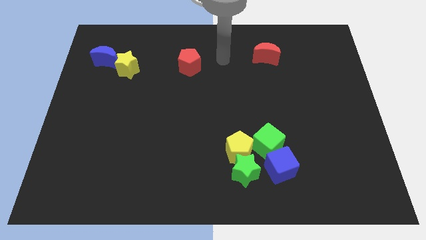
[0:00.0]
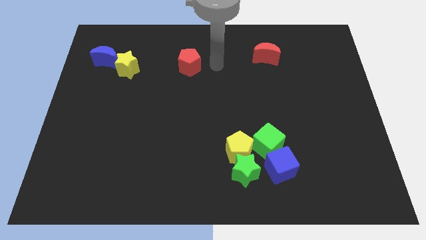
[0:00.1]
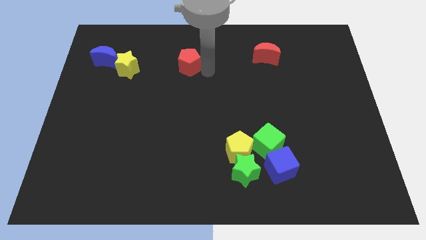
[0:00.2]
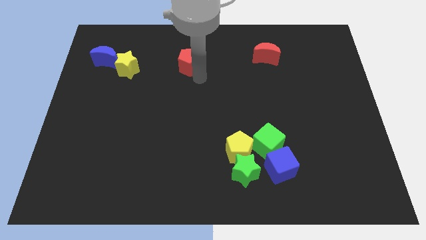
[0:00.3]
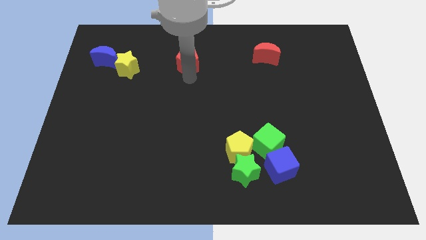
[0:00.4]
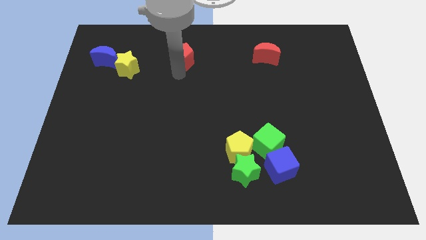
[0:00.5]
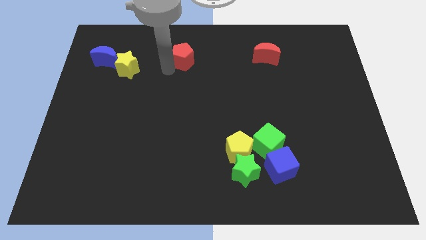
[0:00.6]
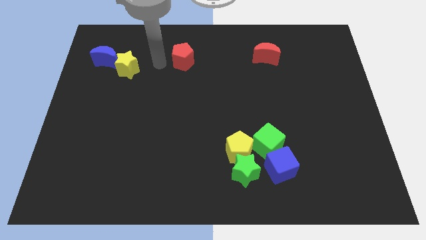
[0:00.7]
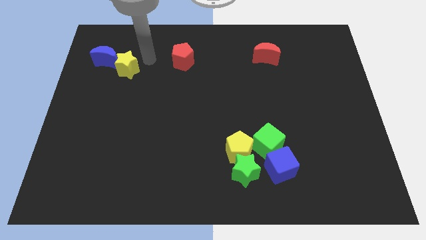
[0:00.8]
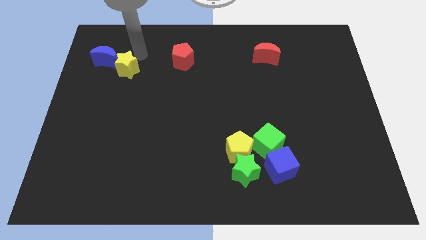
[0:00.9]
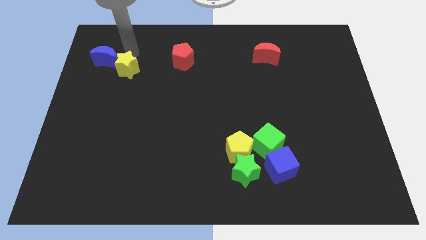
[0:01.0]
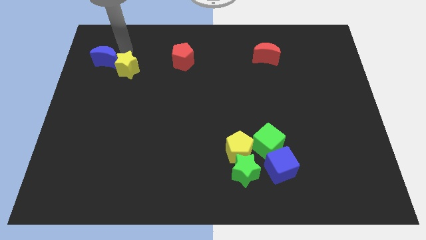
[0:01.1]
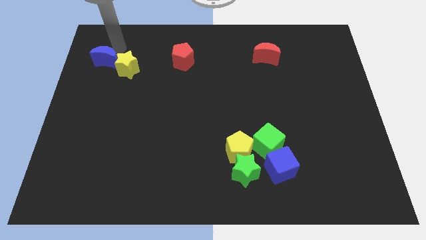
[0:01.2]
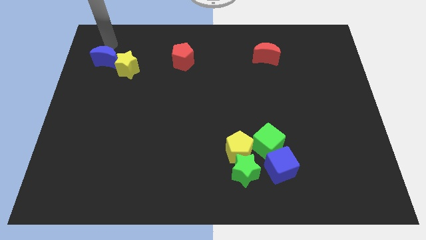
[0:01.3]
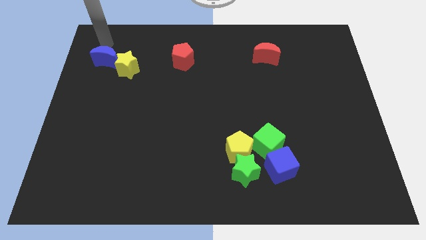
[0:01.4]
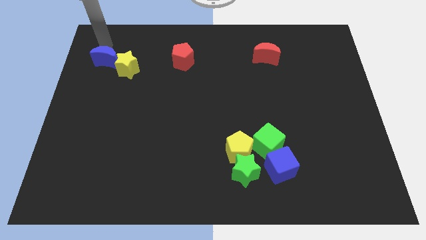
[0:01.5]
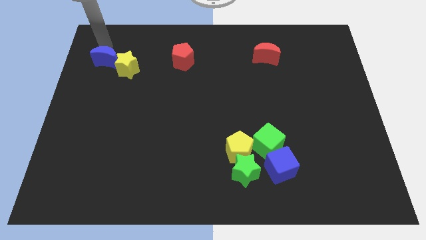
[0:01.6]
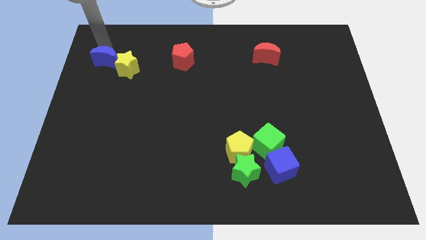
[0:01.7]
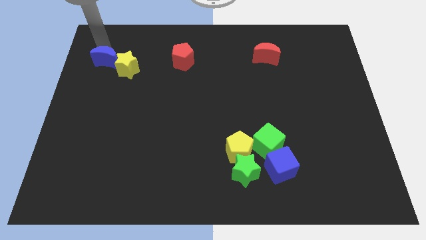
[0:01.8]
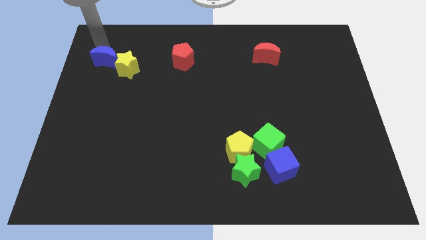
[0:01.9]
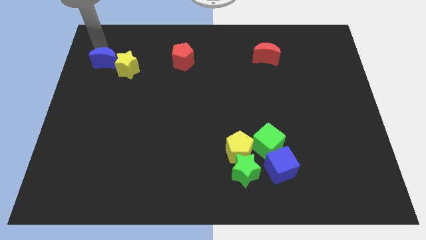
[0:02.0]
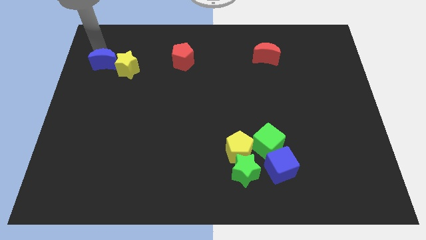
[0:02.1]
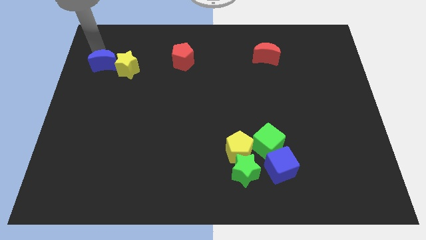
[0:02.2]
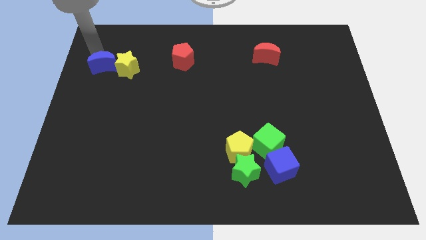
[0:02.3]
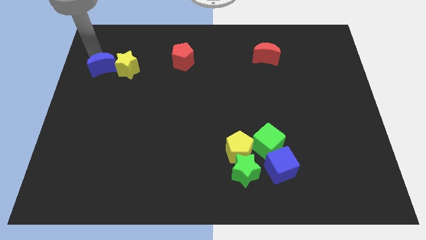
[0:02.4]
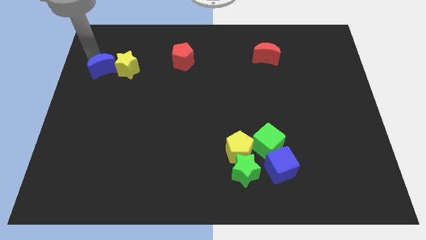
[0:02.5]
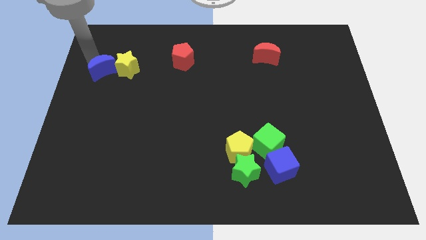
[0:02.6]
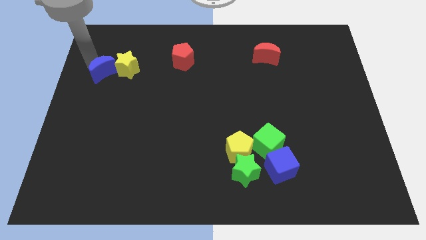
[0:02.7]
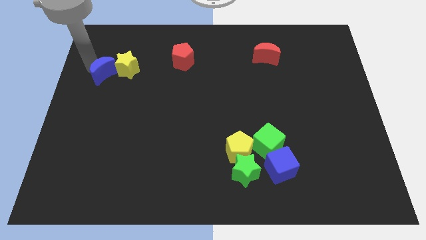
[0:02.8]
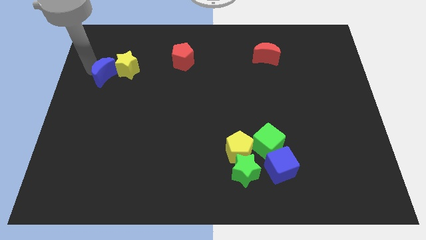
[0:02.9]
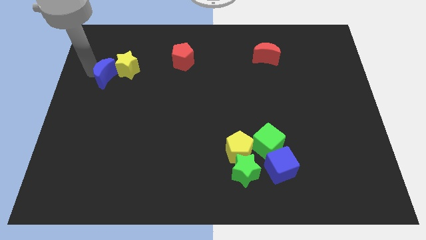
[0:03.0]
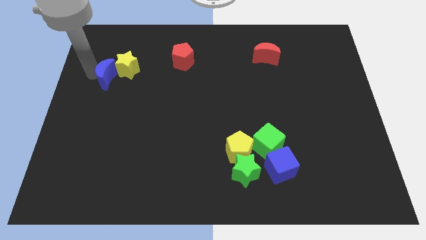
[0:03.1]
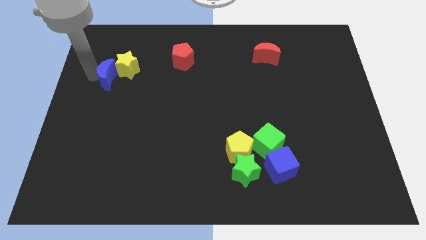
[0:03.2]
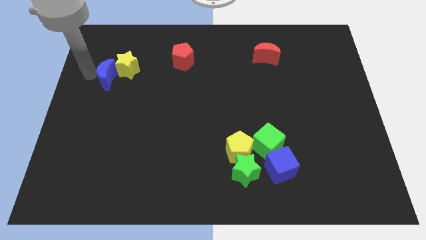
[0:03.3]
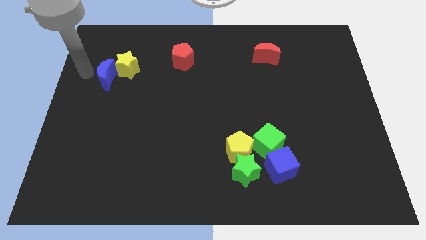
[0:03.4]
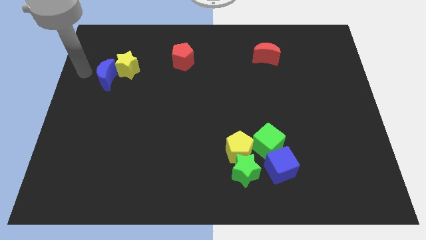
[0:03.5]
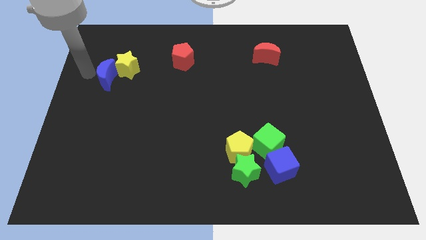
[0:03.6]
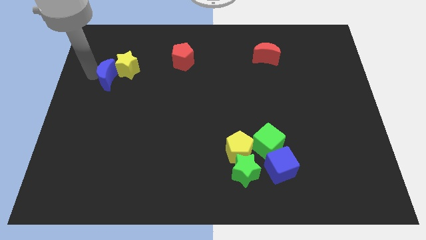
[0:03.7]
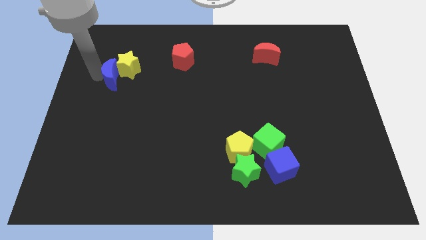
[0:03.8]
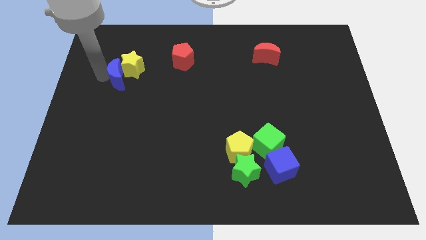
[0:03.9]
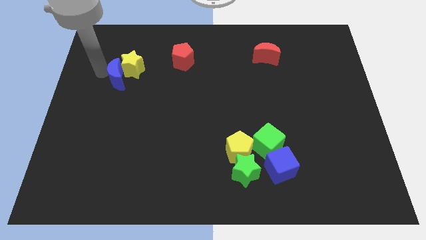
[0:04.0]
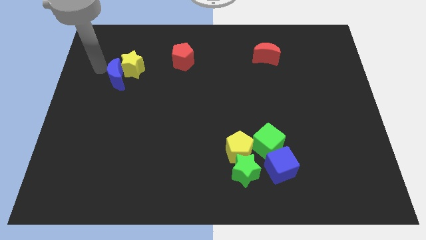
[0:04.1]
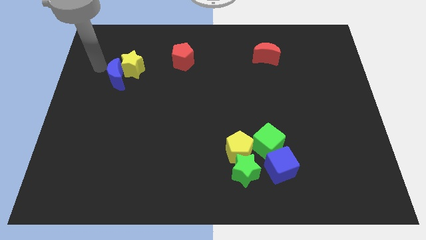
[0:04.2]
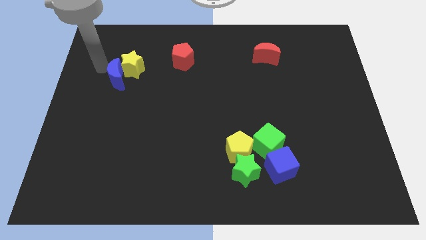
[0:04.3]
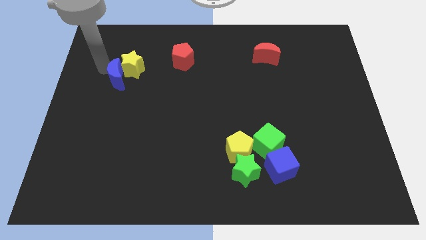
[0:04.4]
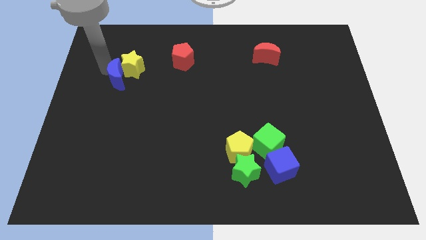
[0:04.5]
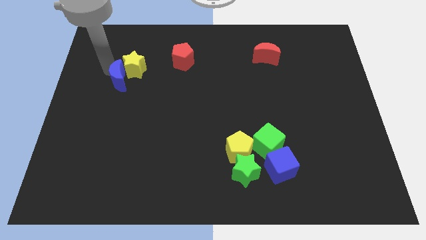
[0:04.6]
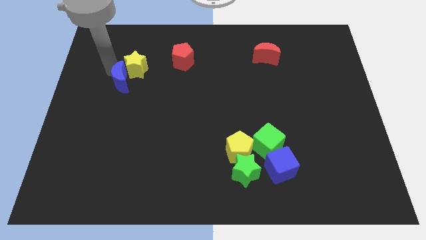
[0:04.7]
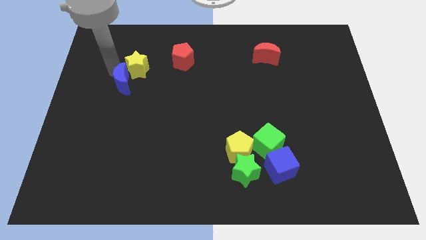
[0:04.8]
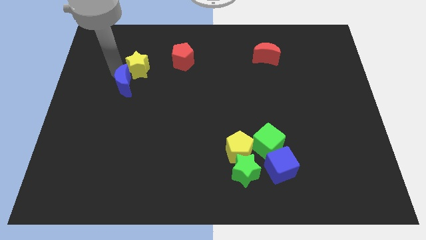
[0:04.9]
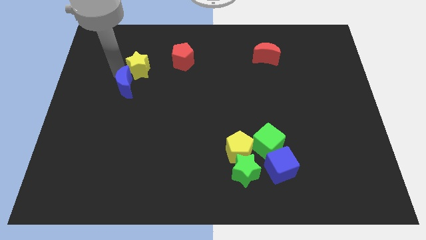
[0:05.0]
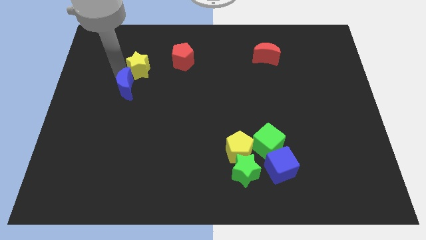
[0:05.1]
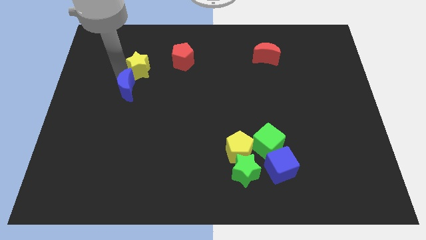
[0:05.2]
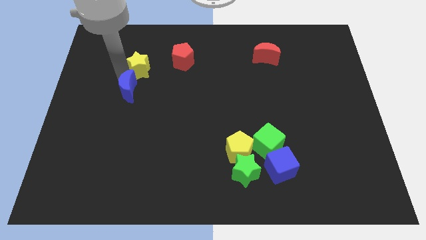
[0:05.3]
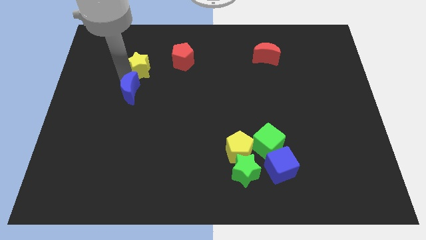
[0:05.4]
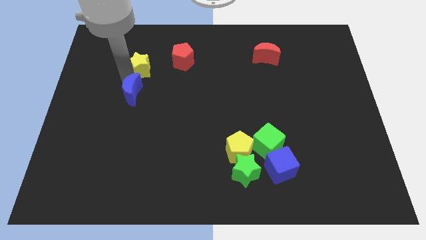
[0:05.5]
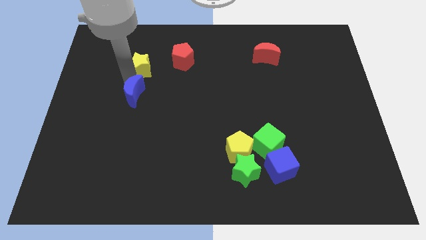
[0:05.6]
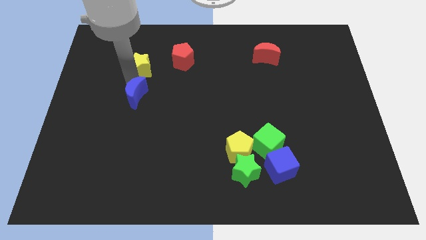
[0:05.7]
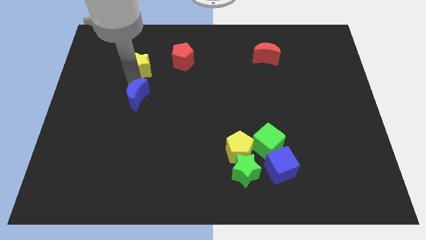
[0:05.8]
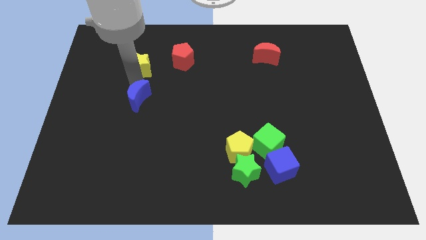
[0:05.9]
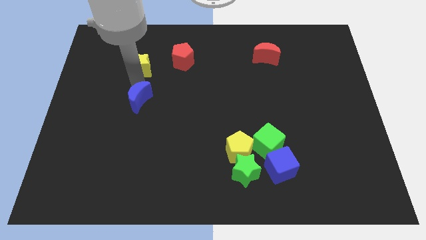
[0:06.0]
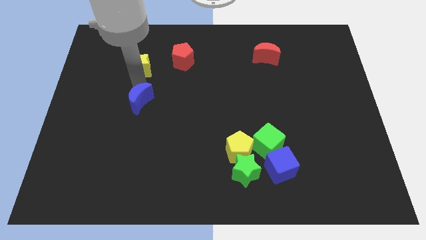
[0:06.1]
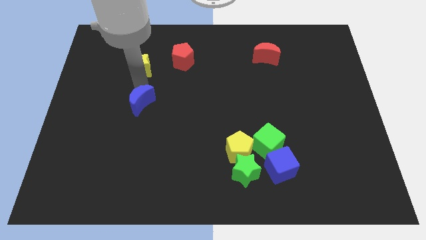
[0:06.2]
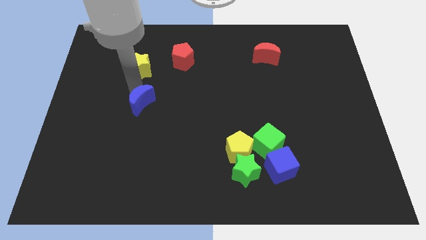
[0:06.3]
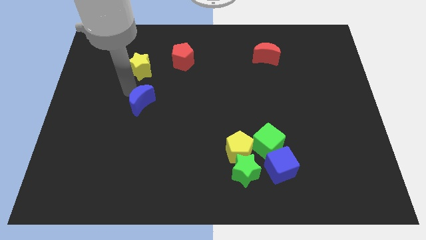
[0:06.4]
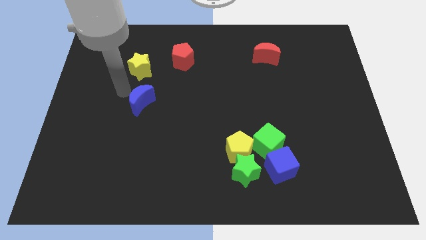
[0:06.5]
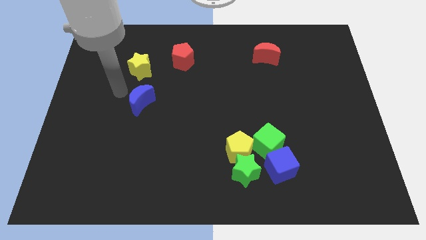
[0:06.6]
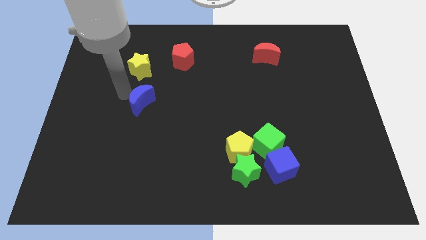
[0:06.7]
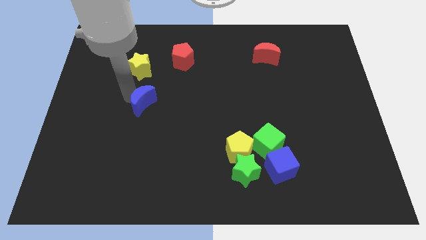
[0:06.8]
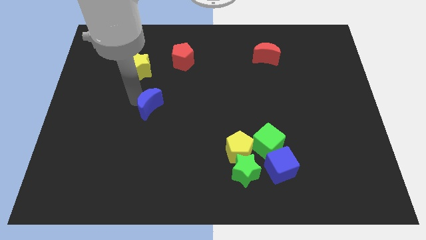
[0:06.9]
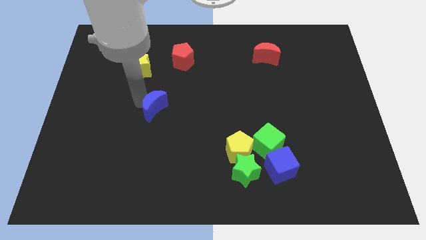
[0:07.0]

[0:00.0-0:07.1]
move the blue moon down and right

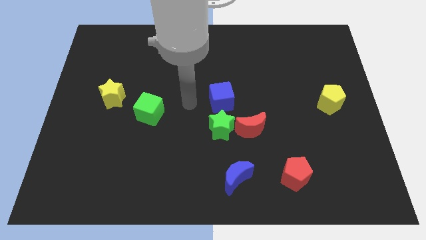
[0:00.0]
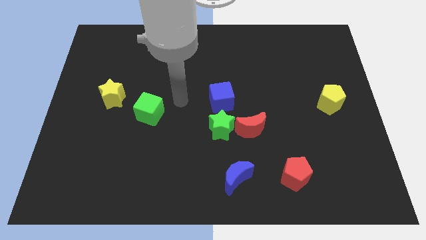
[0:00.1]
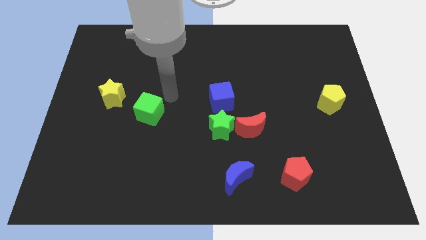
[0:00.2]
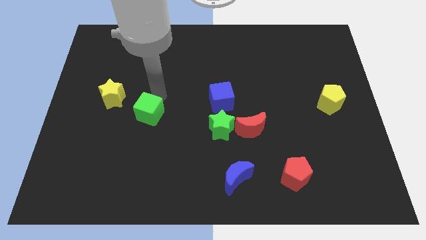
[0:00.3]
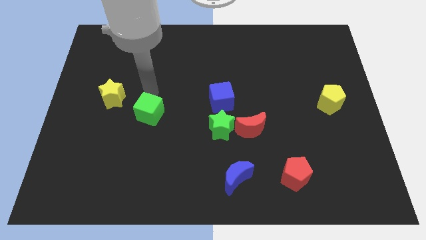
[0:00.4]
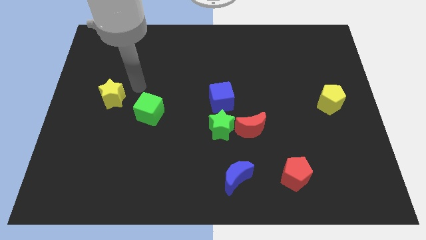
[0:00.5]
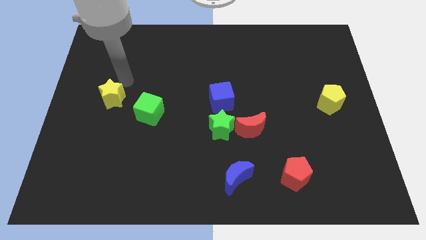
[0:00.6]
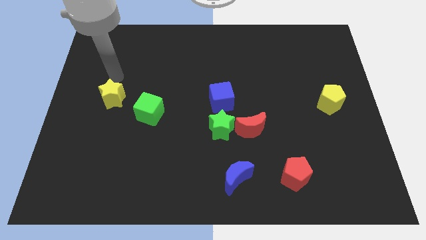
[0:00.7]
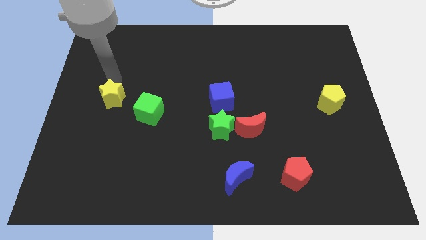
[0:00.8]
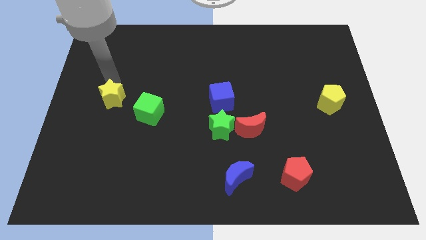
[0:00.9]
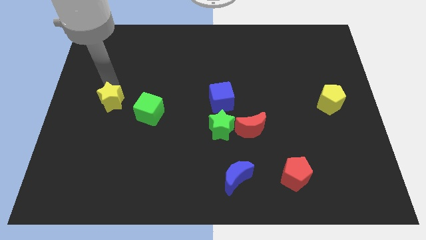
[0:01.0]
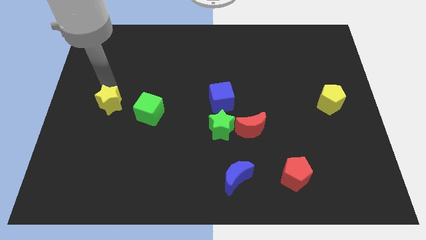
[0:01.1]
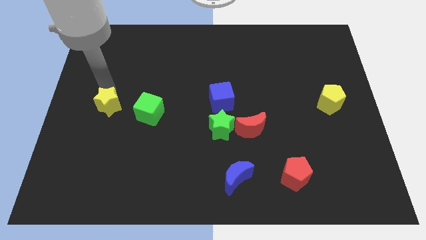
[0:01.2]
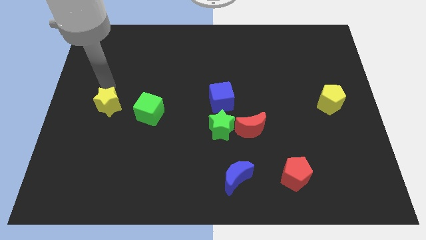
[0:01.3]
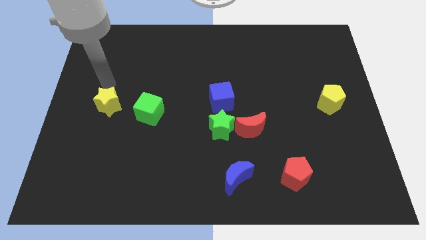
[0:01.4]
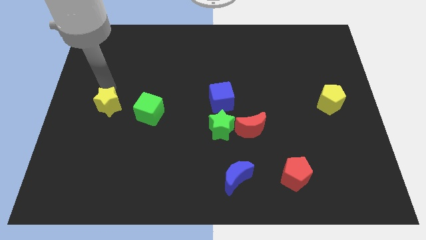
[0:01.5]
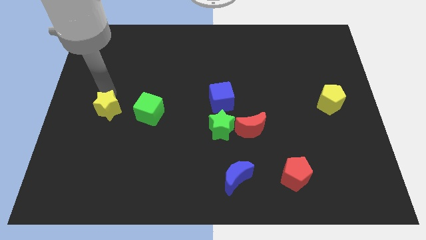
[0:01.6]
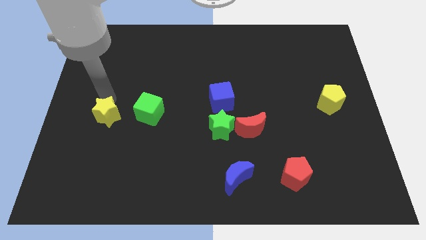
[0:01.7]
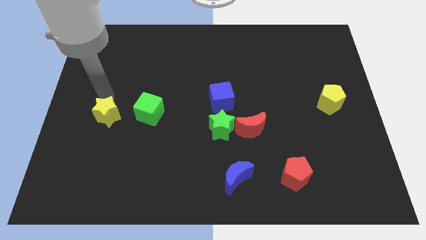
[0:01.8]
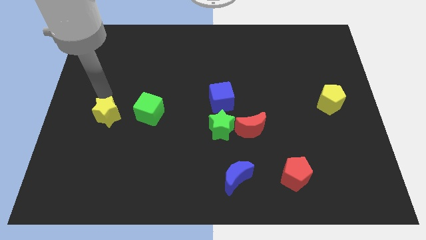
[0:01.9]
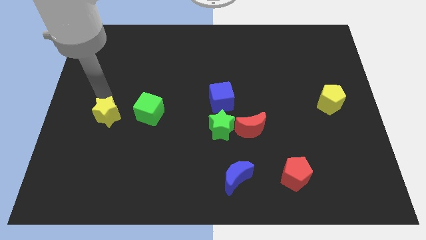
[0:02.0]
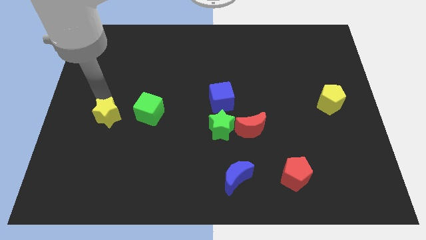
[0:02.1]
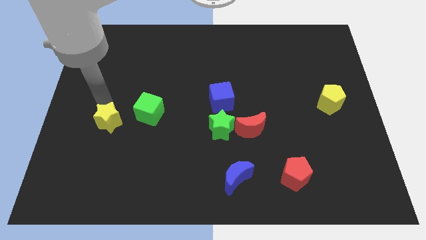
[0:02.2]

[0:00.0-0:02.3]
slide the yellow star a little downwards
